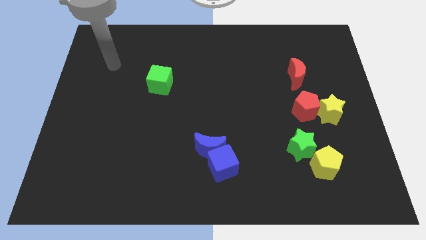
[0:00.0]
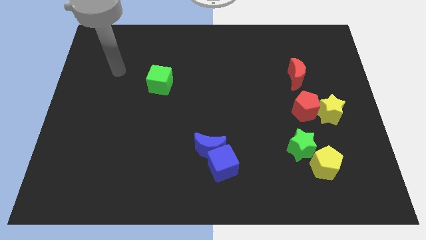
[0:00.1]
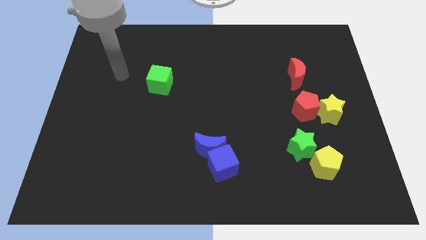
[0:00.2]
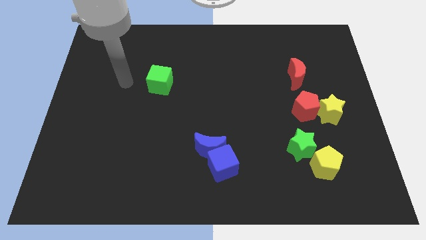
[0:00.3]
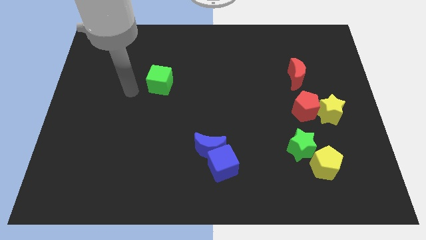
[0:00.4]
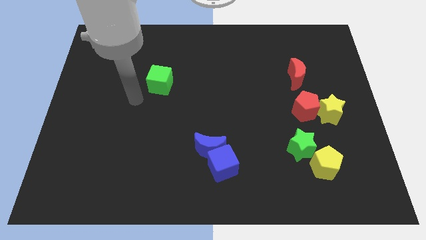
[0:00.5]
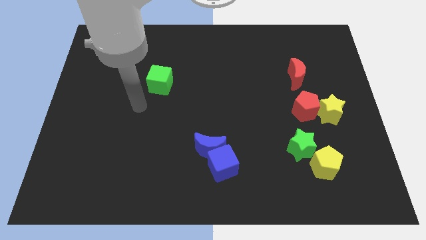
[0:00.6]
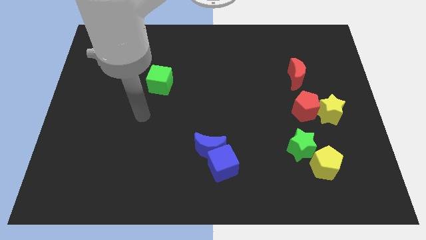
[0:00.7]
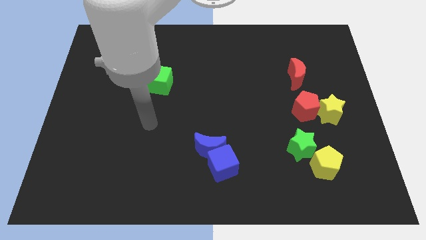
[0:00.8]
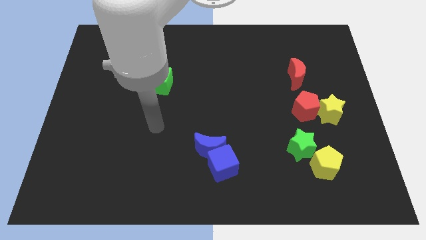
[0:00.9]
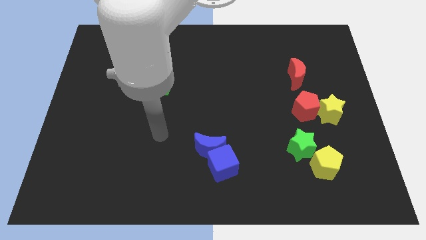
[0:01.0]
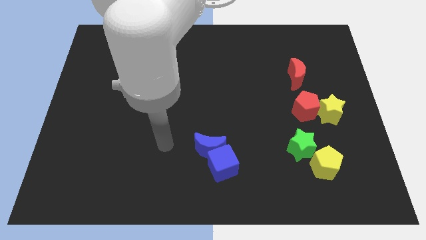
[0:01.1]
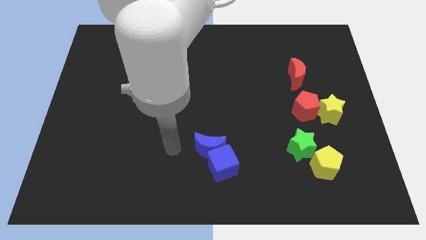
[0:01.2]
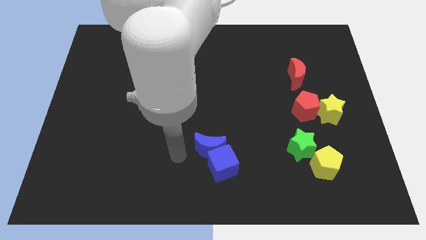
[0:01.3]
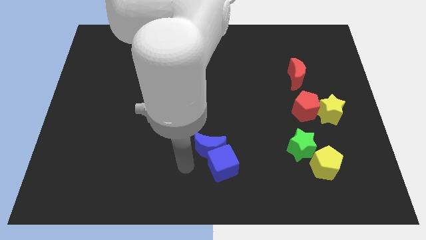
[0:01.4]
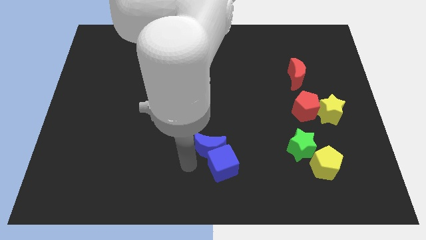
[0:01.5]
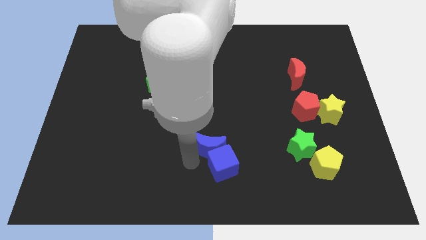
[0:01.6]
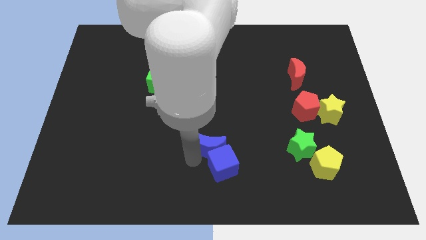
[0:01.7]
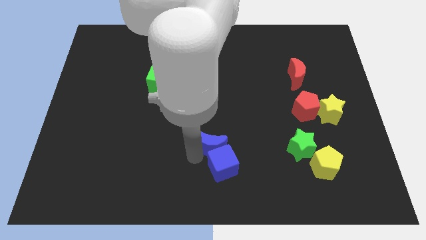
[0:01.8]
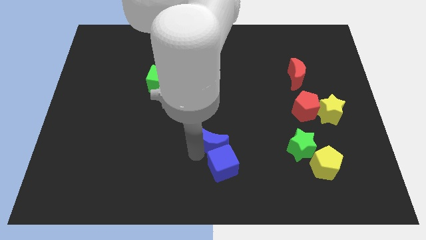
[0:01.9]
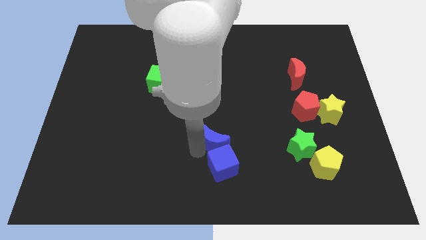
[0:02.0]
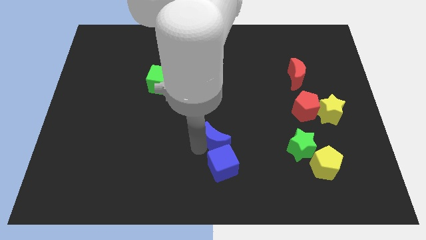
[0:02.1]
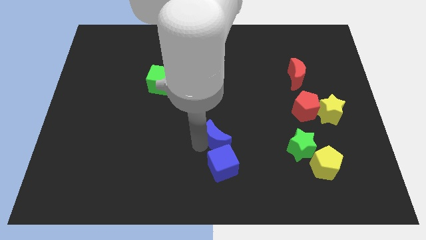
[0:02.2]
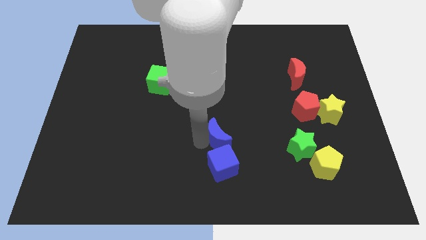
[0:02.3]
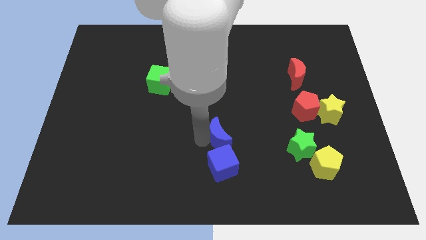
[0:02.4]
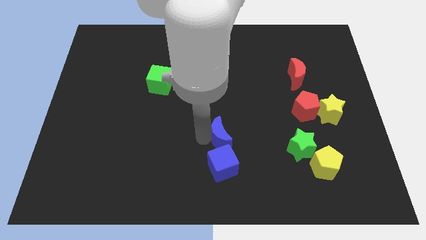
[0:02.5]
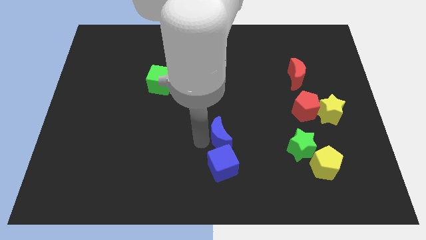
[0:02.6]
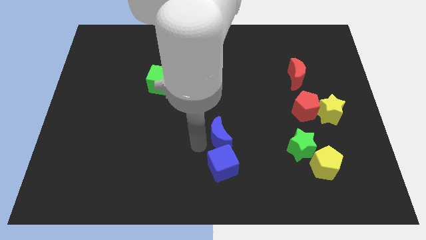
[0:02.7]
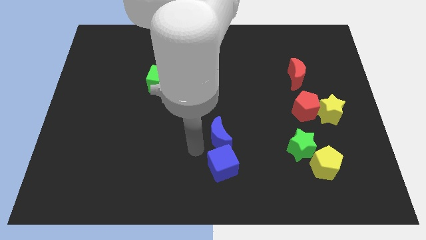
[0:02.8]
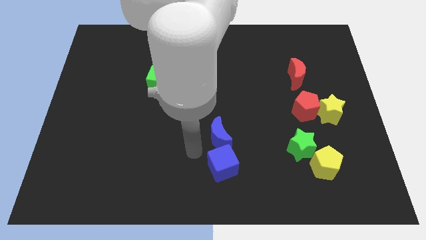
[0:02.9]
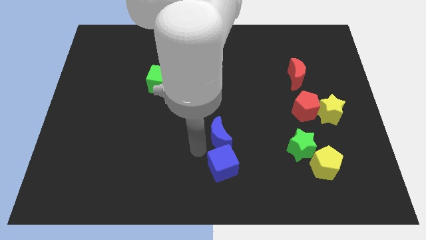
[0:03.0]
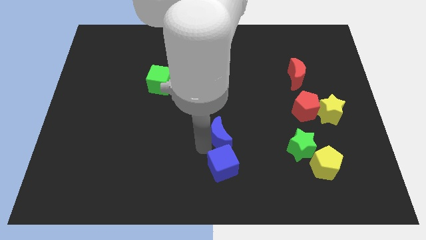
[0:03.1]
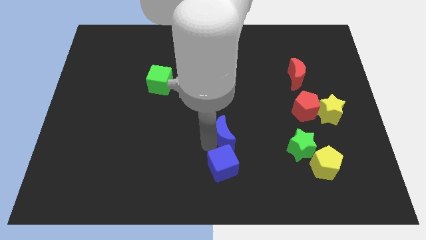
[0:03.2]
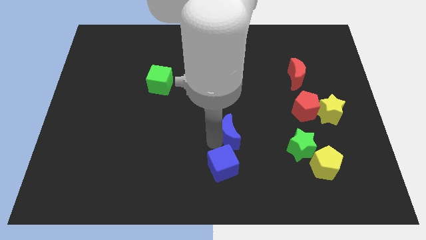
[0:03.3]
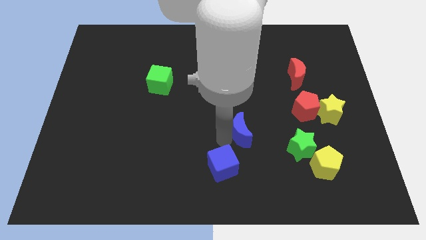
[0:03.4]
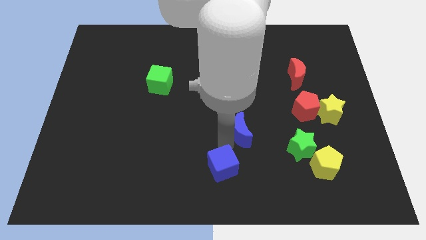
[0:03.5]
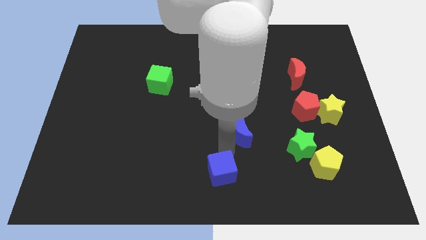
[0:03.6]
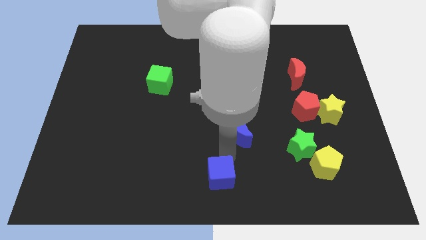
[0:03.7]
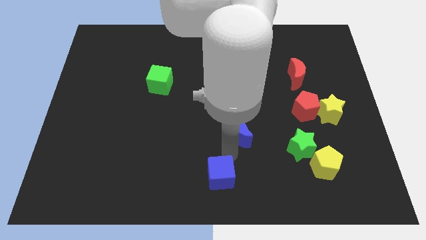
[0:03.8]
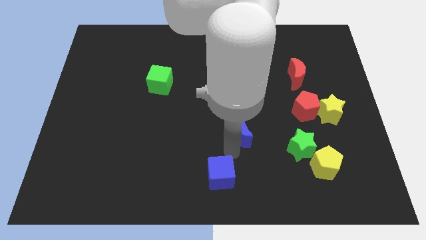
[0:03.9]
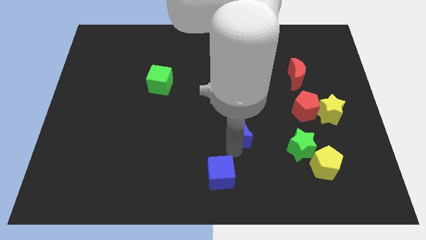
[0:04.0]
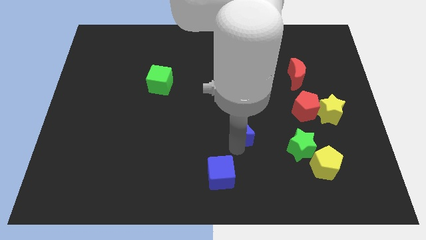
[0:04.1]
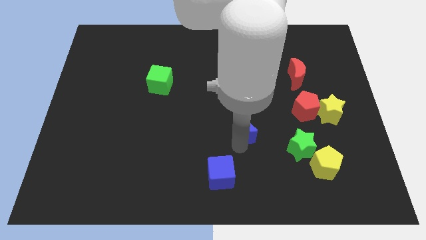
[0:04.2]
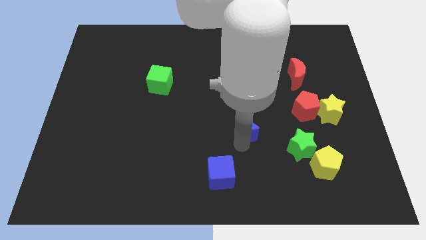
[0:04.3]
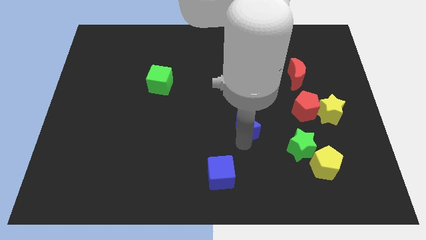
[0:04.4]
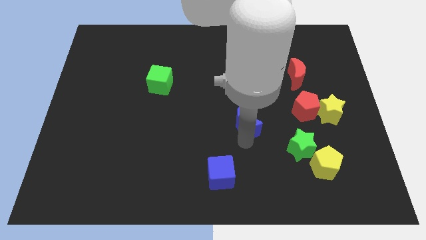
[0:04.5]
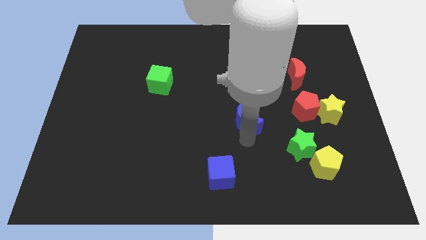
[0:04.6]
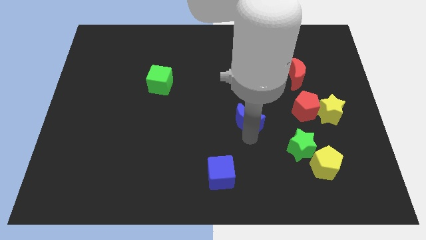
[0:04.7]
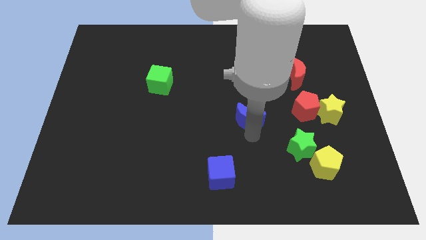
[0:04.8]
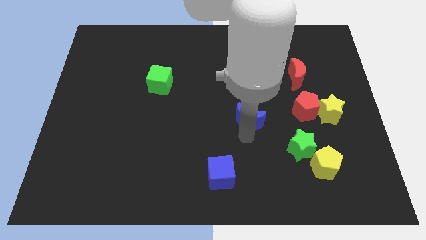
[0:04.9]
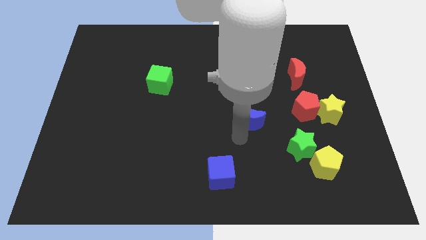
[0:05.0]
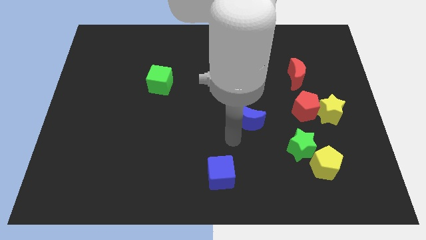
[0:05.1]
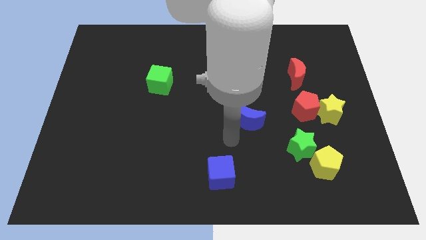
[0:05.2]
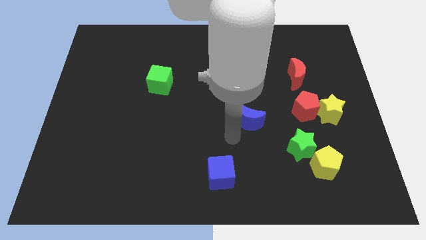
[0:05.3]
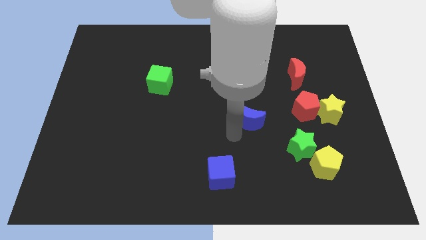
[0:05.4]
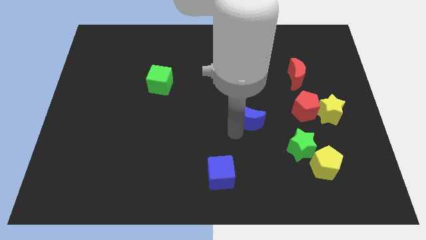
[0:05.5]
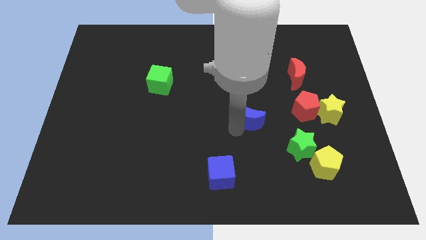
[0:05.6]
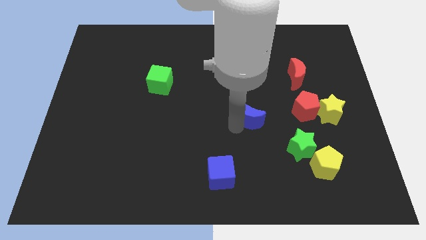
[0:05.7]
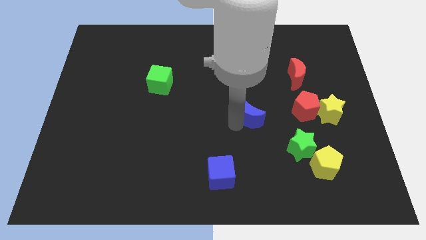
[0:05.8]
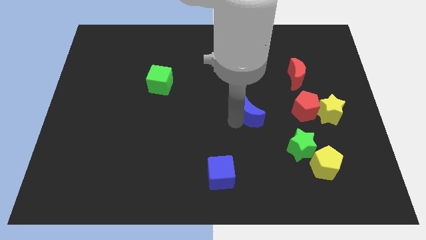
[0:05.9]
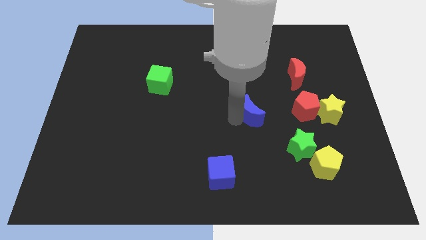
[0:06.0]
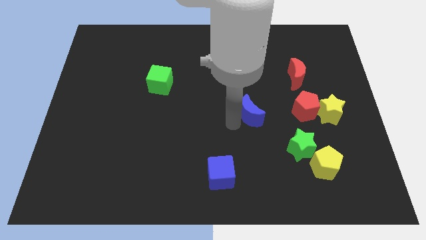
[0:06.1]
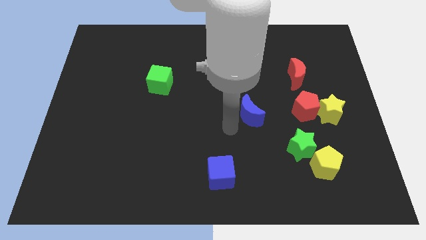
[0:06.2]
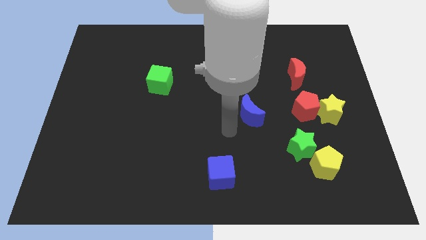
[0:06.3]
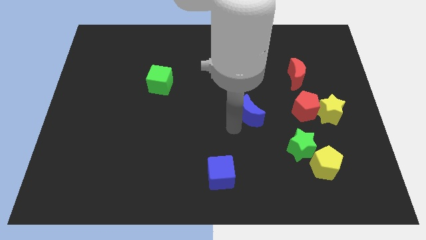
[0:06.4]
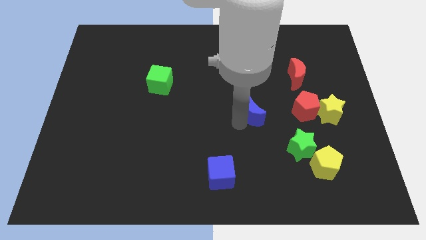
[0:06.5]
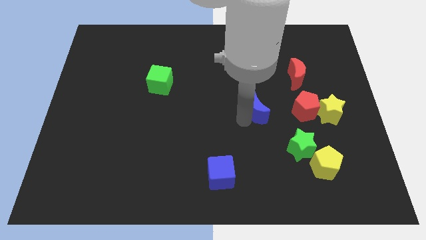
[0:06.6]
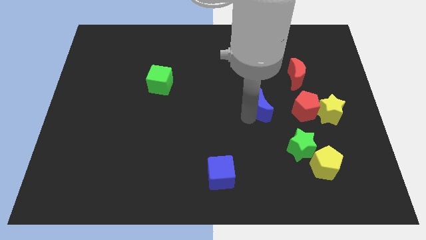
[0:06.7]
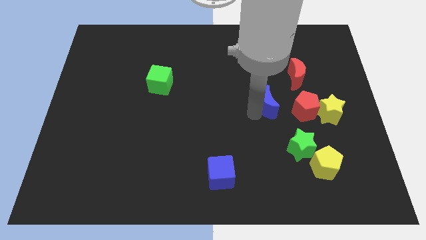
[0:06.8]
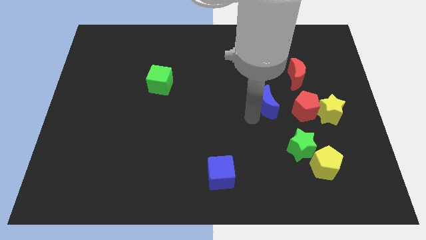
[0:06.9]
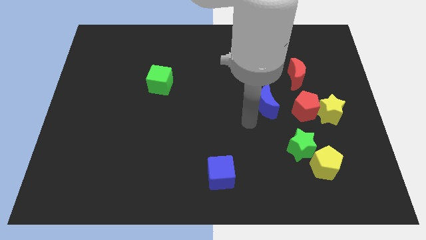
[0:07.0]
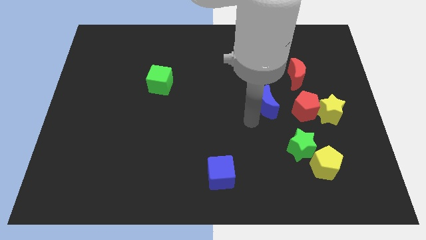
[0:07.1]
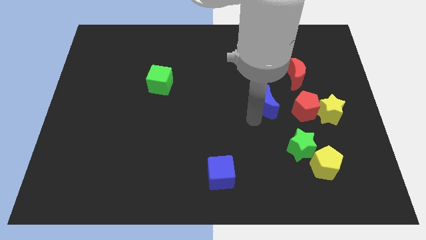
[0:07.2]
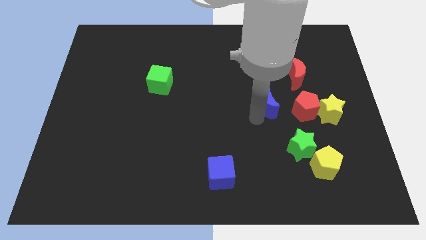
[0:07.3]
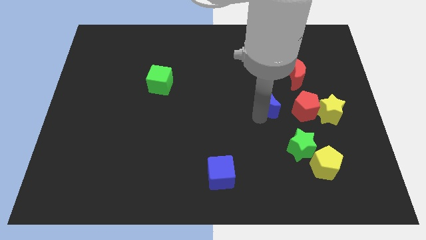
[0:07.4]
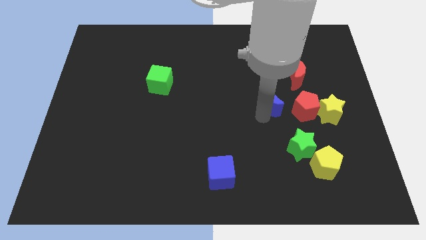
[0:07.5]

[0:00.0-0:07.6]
push the blue moon to the top left side of the red pentagon
